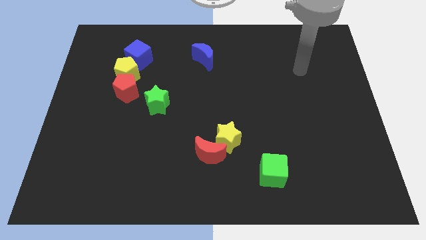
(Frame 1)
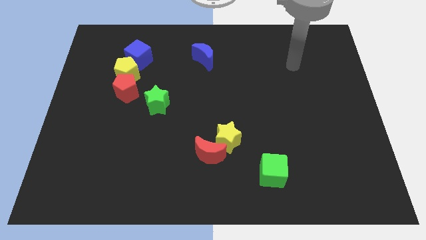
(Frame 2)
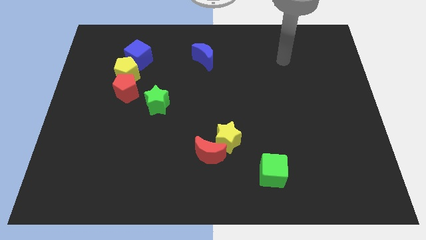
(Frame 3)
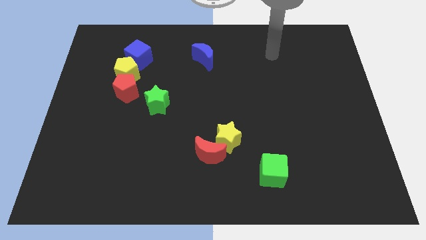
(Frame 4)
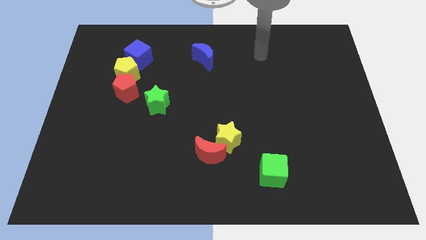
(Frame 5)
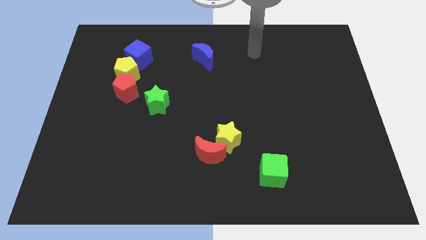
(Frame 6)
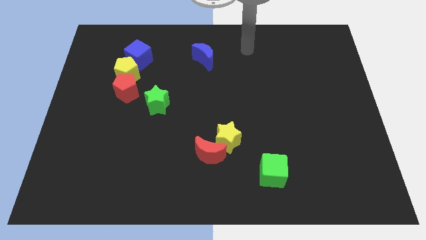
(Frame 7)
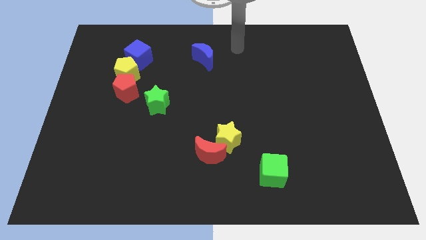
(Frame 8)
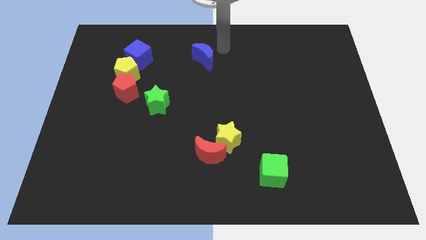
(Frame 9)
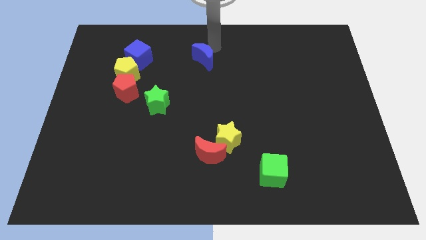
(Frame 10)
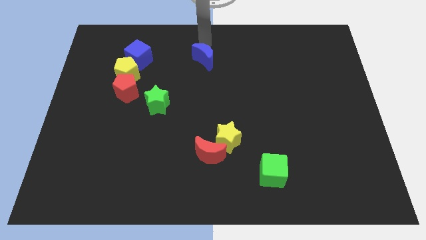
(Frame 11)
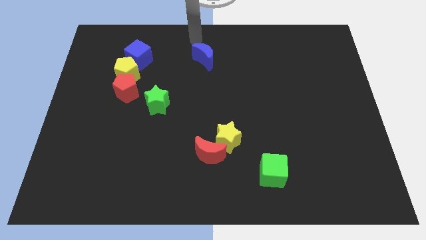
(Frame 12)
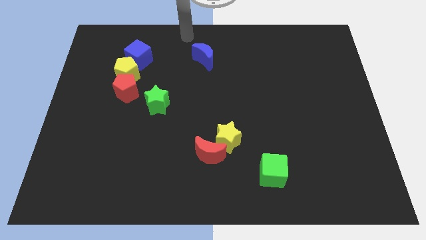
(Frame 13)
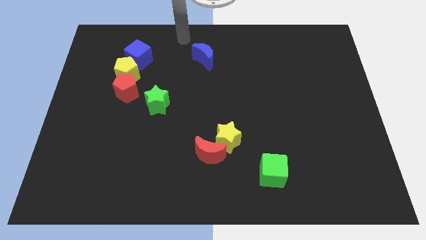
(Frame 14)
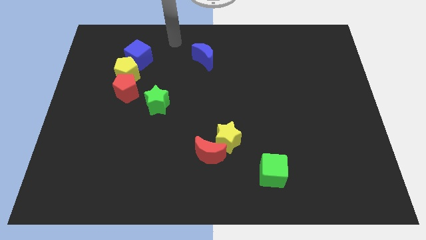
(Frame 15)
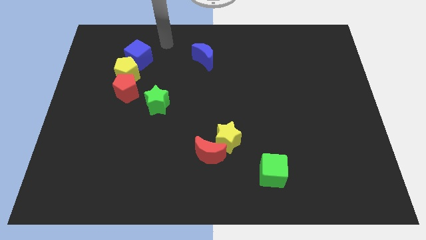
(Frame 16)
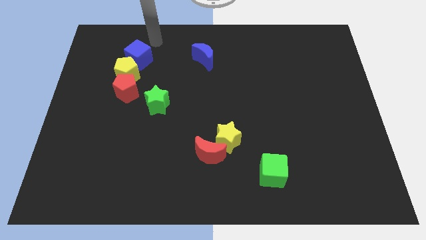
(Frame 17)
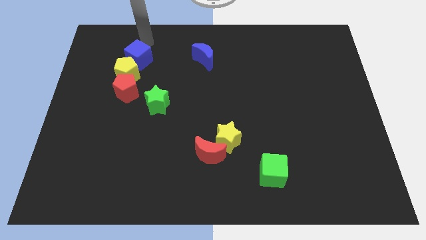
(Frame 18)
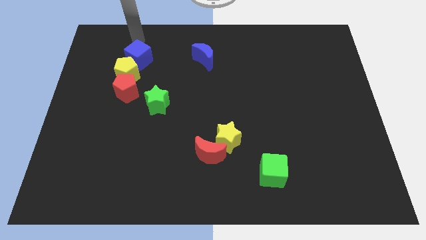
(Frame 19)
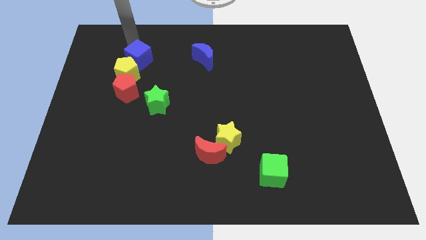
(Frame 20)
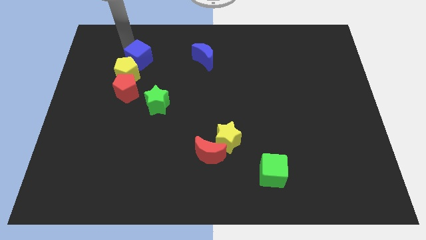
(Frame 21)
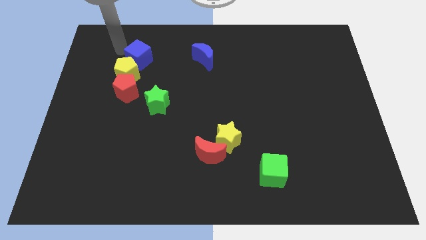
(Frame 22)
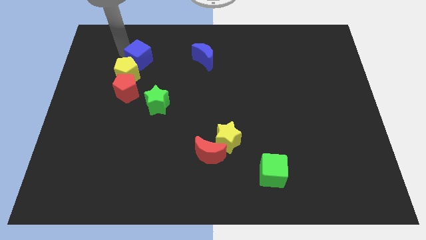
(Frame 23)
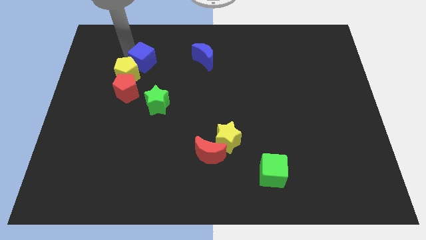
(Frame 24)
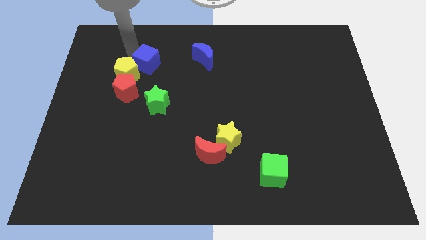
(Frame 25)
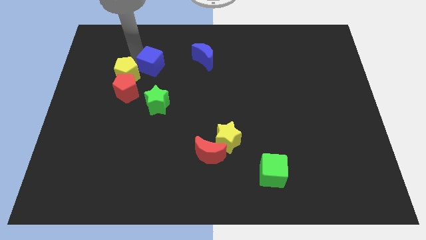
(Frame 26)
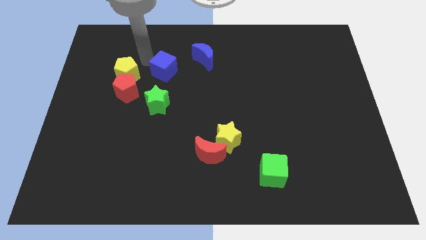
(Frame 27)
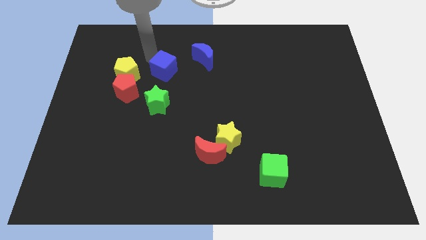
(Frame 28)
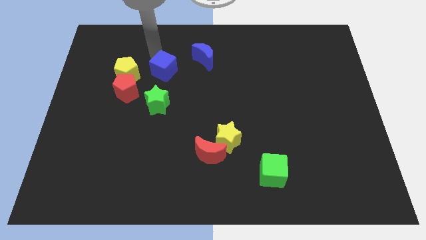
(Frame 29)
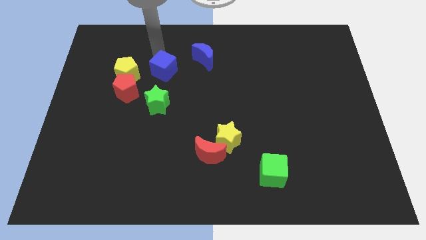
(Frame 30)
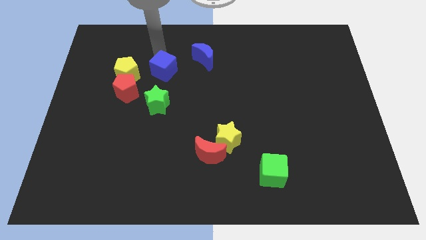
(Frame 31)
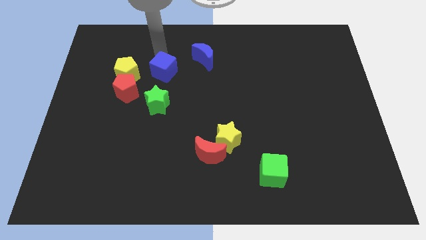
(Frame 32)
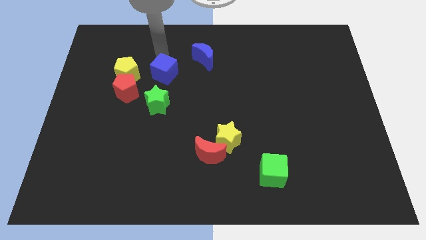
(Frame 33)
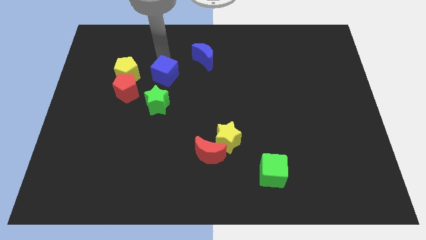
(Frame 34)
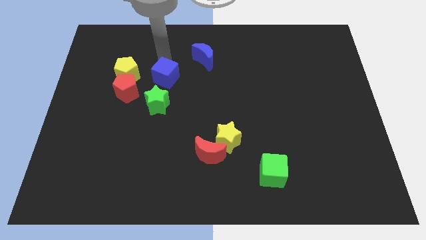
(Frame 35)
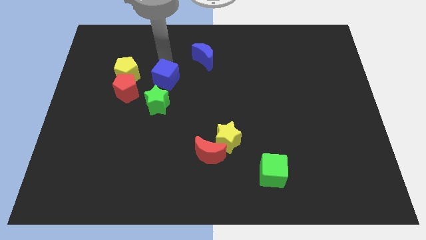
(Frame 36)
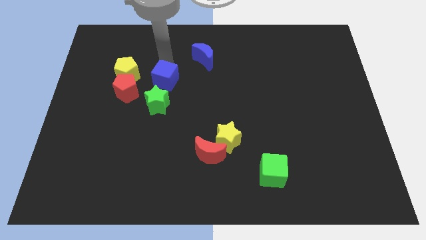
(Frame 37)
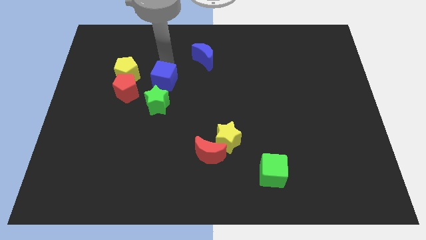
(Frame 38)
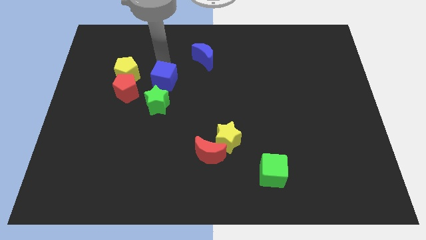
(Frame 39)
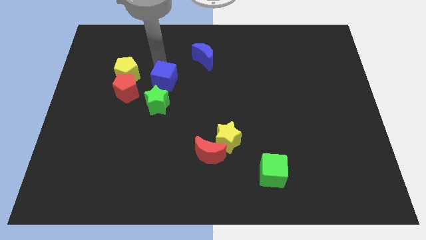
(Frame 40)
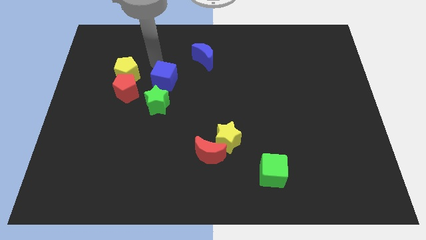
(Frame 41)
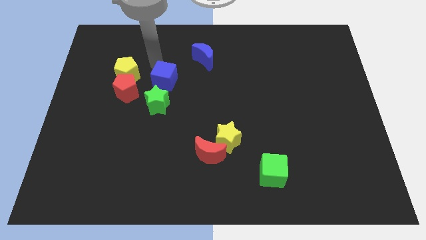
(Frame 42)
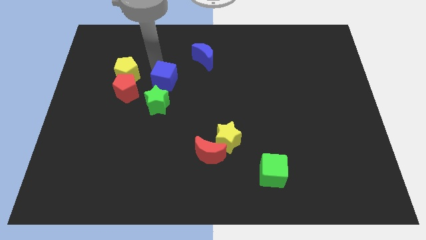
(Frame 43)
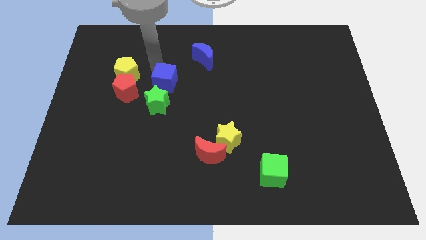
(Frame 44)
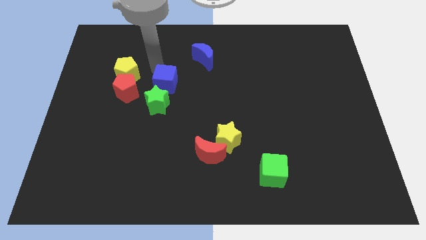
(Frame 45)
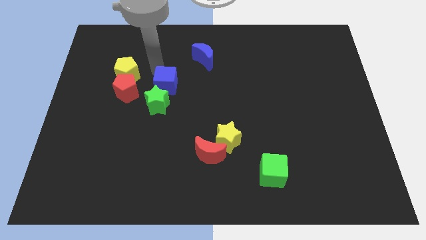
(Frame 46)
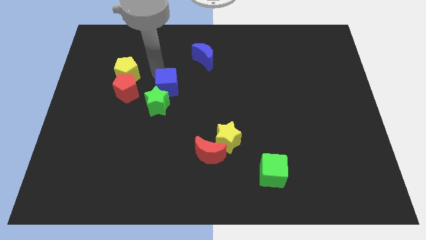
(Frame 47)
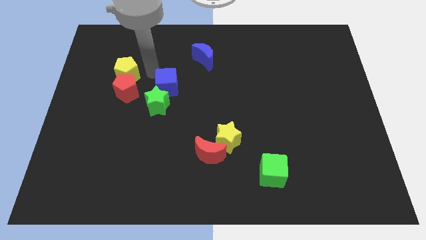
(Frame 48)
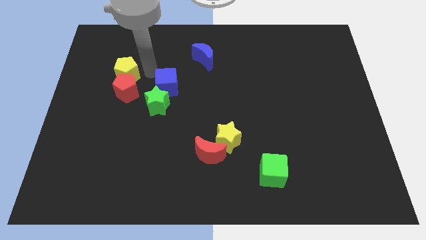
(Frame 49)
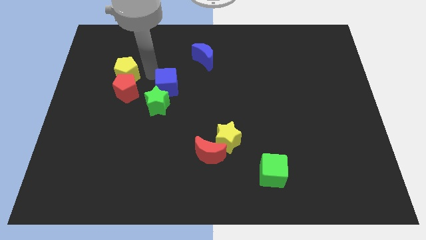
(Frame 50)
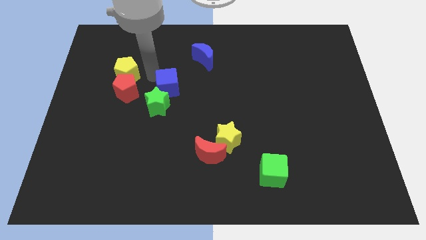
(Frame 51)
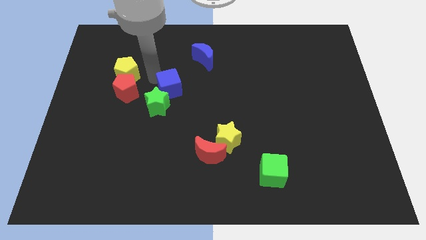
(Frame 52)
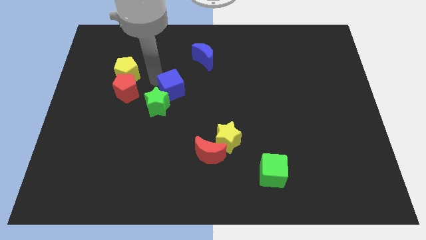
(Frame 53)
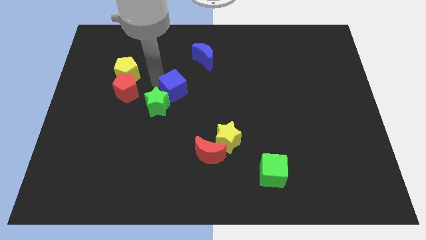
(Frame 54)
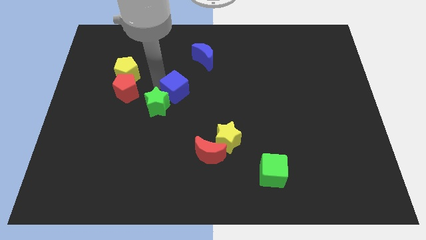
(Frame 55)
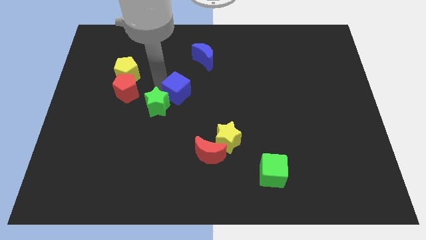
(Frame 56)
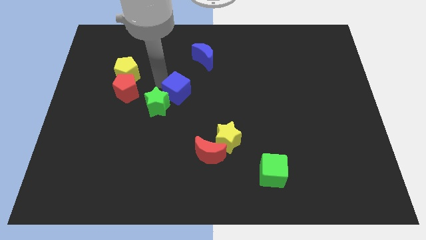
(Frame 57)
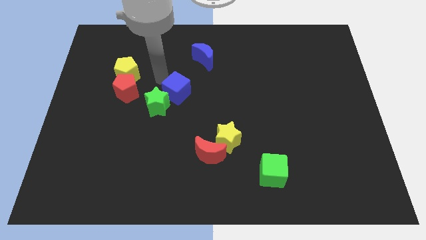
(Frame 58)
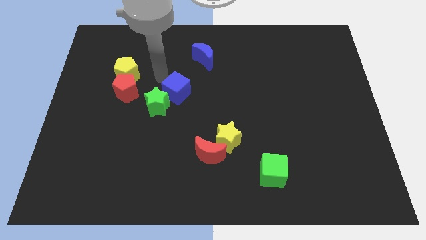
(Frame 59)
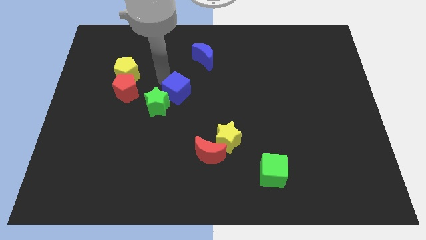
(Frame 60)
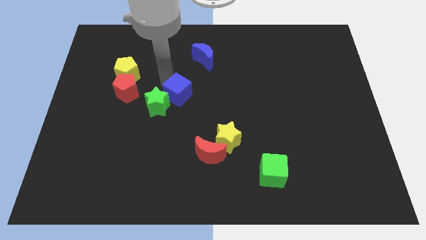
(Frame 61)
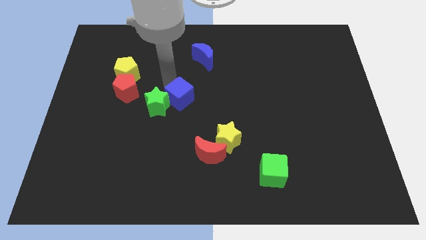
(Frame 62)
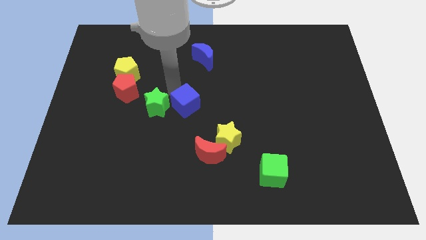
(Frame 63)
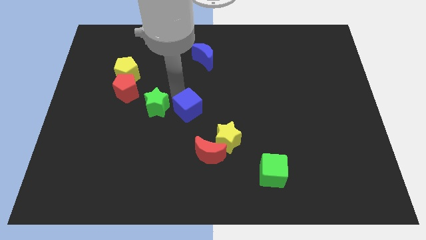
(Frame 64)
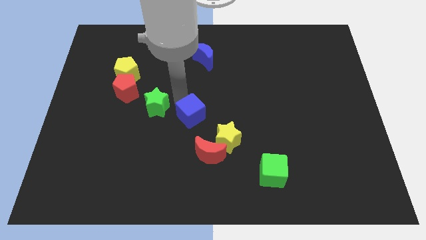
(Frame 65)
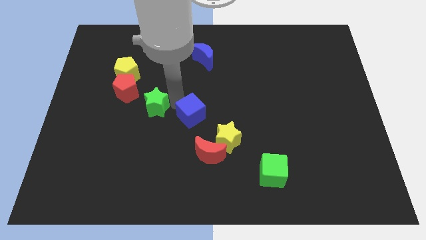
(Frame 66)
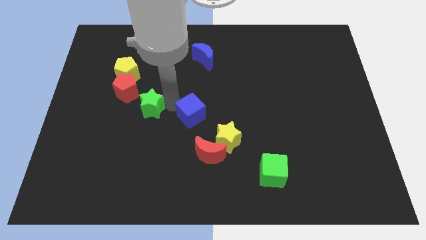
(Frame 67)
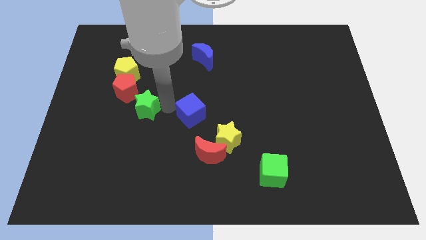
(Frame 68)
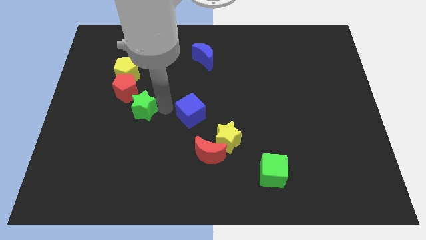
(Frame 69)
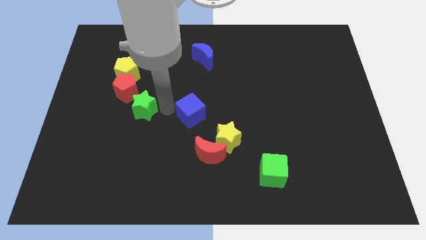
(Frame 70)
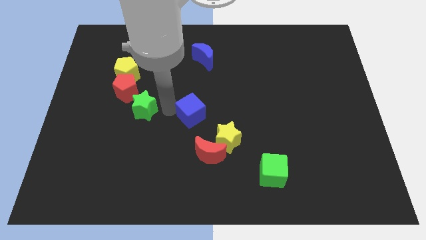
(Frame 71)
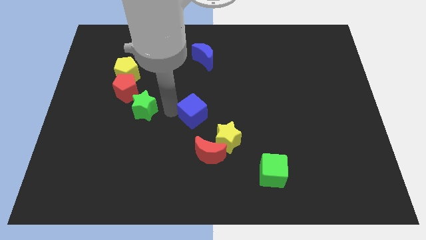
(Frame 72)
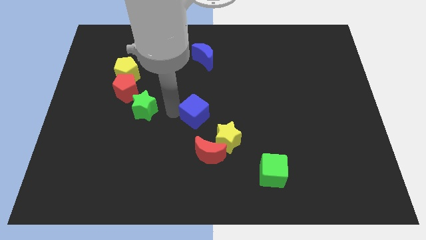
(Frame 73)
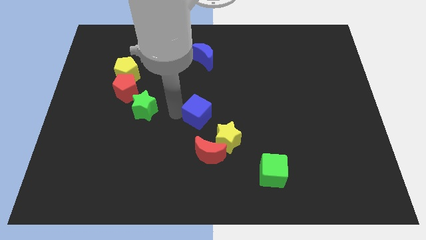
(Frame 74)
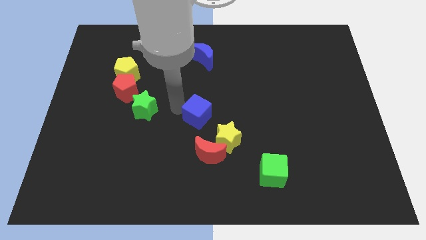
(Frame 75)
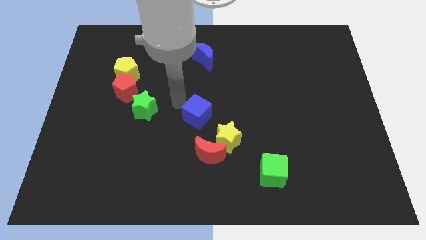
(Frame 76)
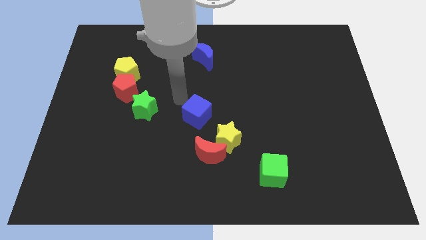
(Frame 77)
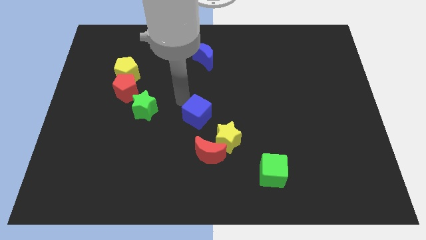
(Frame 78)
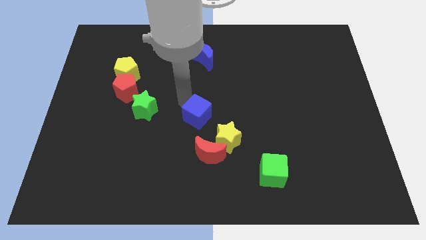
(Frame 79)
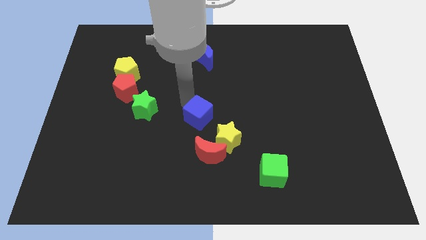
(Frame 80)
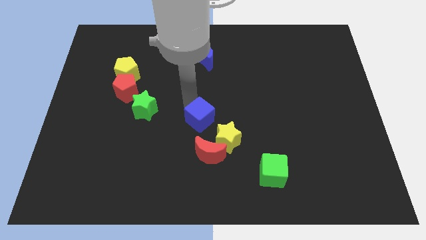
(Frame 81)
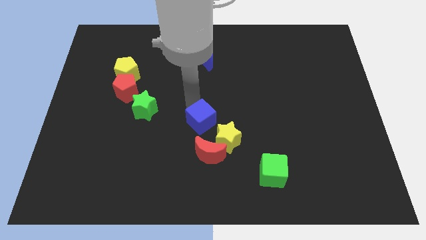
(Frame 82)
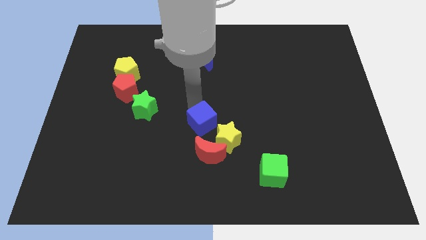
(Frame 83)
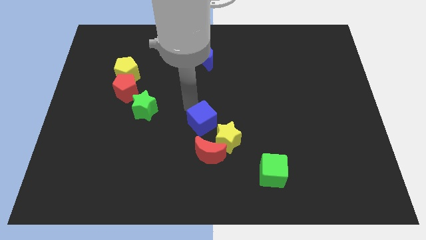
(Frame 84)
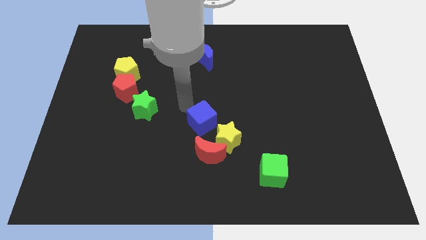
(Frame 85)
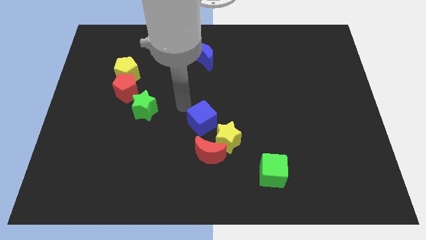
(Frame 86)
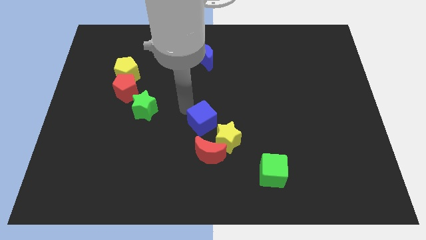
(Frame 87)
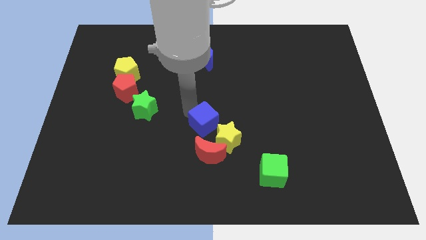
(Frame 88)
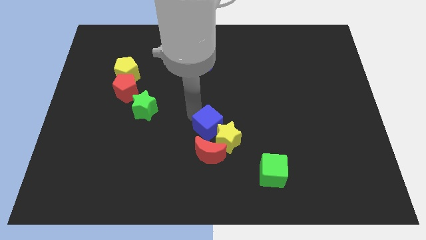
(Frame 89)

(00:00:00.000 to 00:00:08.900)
put the blue cube to the yellow star
